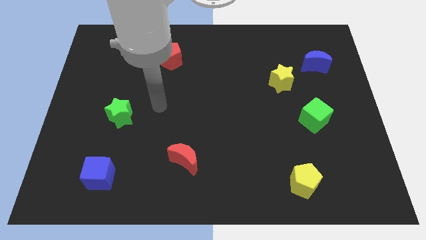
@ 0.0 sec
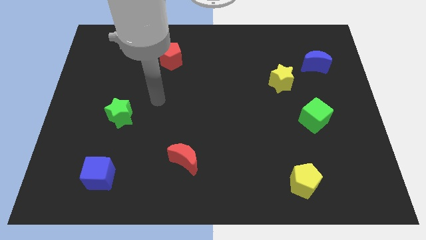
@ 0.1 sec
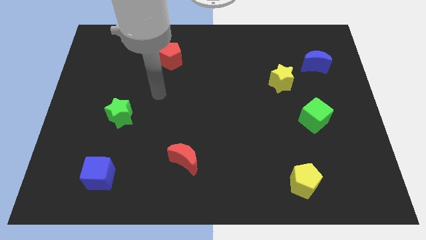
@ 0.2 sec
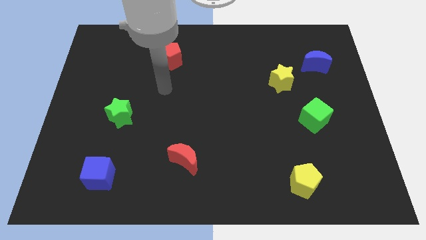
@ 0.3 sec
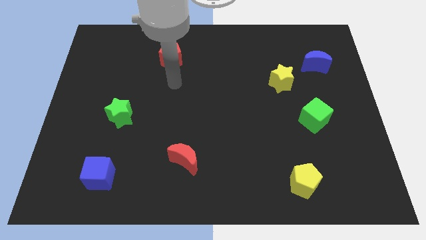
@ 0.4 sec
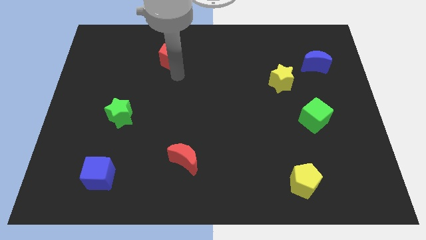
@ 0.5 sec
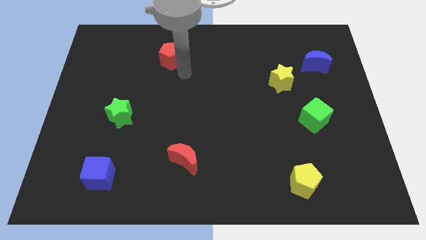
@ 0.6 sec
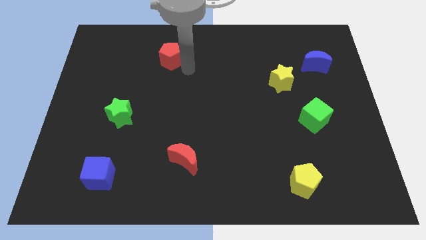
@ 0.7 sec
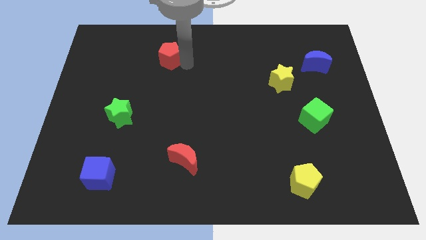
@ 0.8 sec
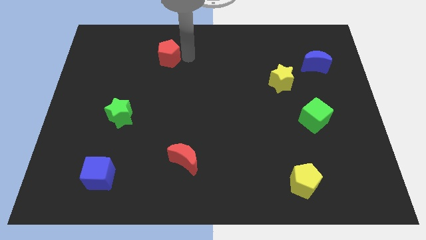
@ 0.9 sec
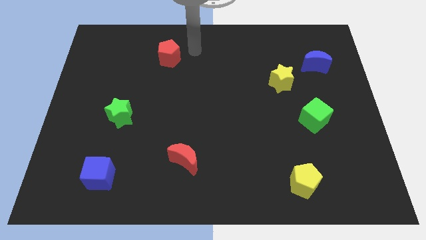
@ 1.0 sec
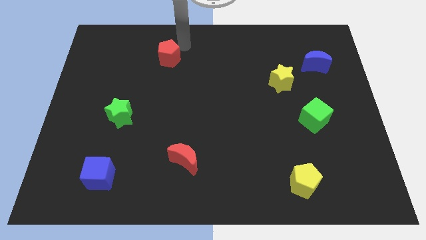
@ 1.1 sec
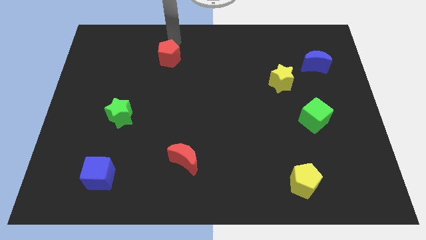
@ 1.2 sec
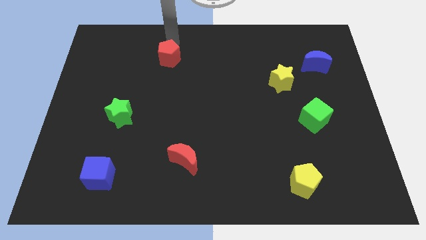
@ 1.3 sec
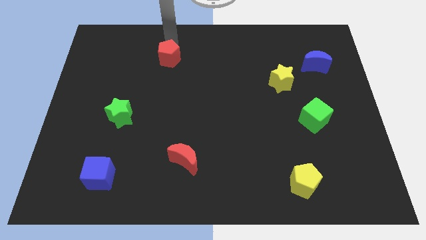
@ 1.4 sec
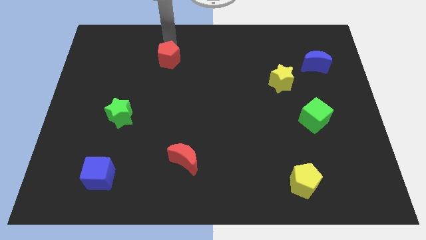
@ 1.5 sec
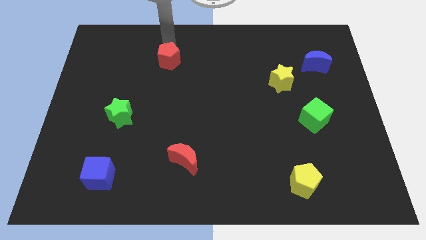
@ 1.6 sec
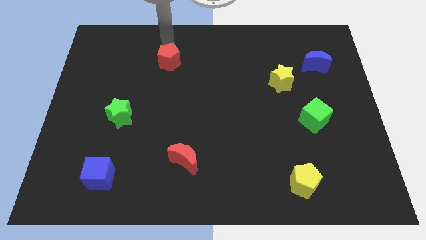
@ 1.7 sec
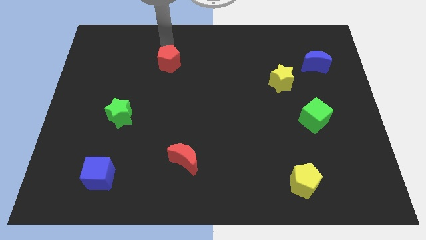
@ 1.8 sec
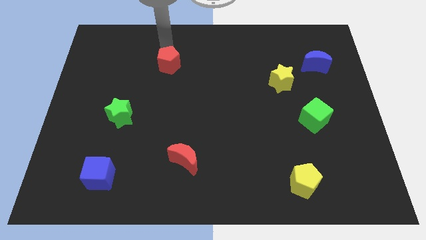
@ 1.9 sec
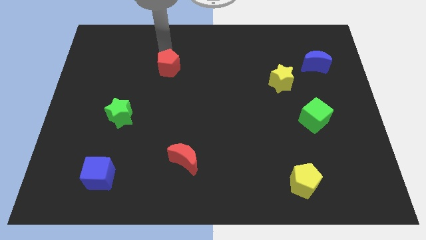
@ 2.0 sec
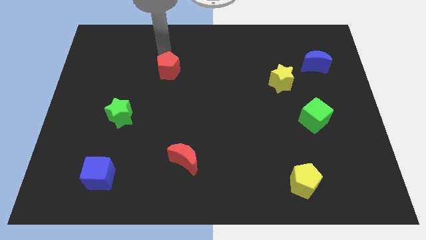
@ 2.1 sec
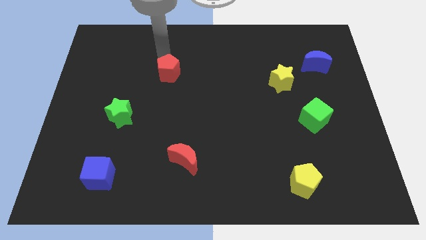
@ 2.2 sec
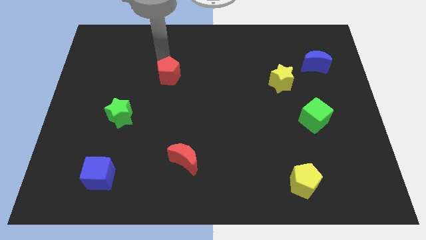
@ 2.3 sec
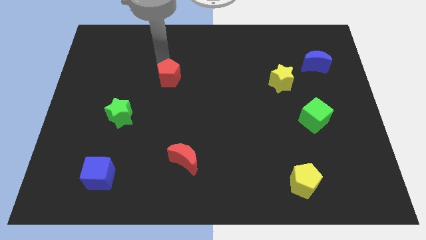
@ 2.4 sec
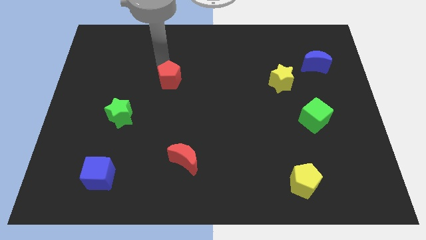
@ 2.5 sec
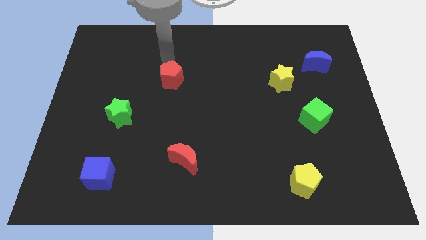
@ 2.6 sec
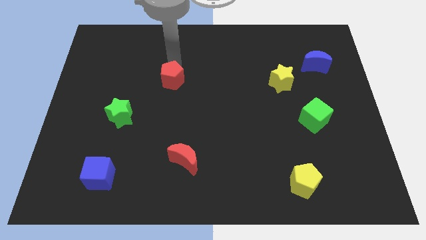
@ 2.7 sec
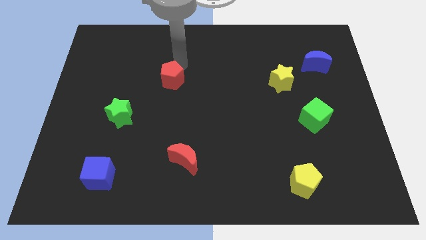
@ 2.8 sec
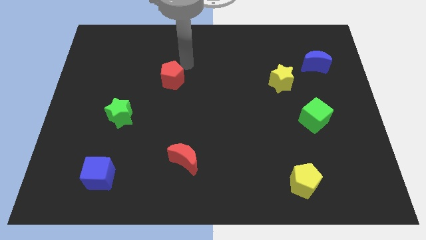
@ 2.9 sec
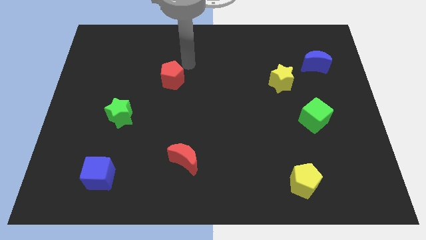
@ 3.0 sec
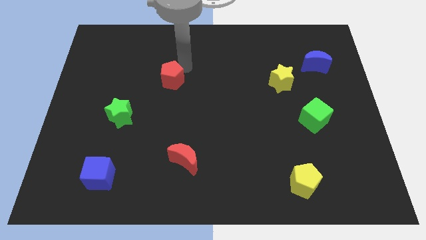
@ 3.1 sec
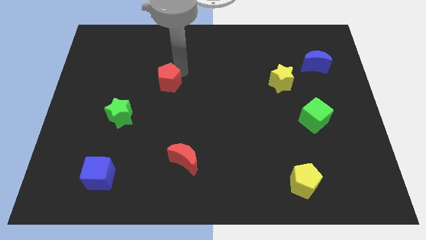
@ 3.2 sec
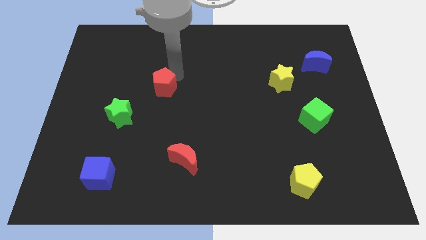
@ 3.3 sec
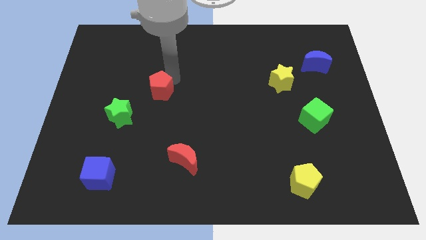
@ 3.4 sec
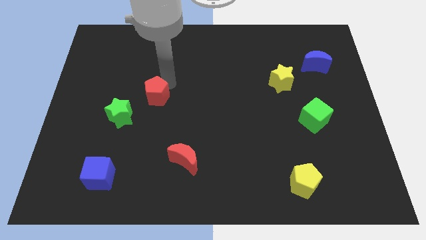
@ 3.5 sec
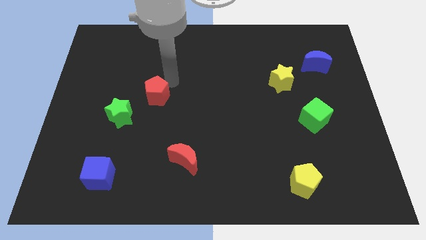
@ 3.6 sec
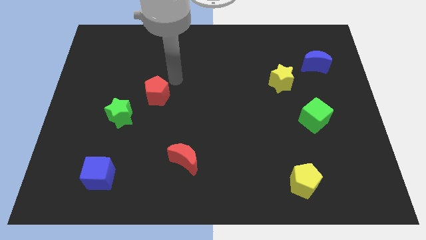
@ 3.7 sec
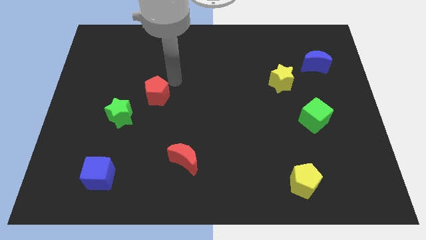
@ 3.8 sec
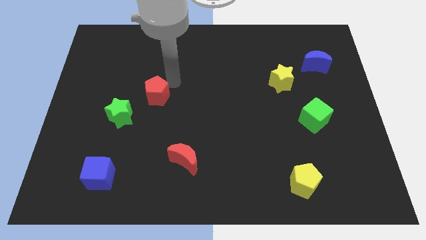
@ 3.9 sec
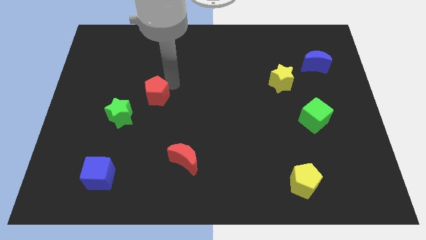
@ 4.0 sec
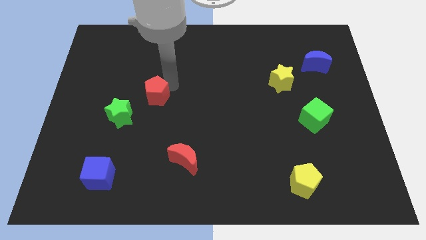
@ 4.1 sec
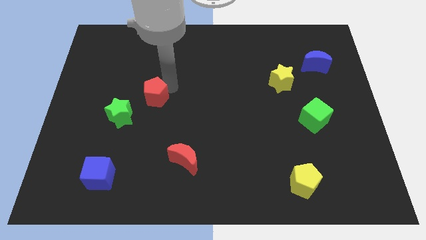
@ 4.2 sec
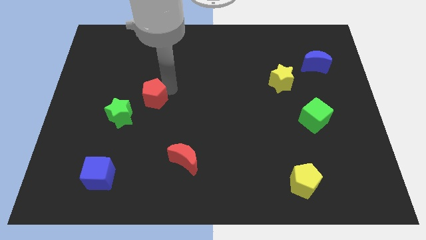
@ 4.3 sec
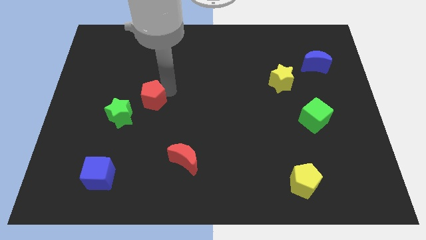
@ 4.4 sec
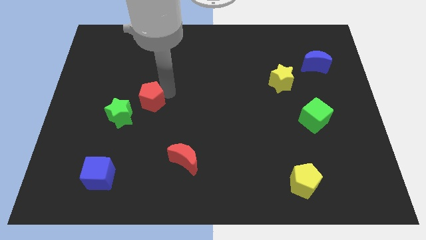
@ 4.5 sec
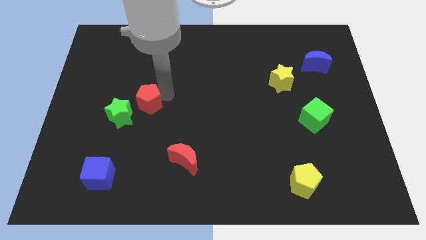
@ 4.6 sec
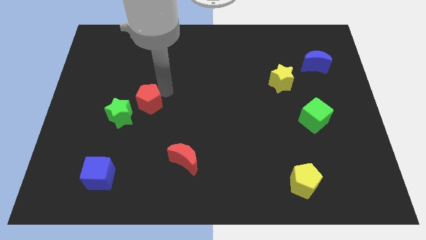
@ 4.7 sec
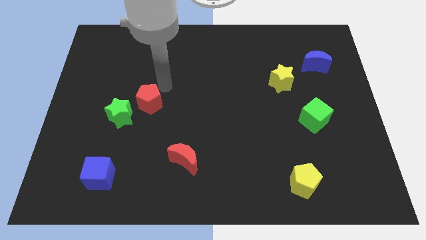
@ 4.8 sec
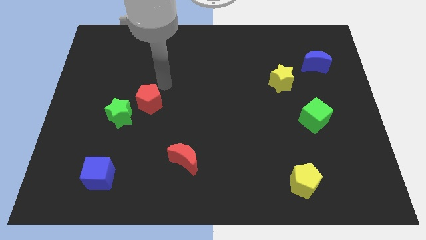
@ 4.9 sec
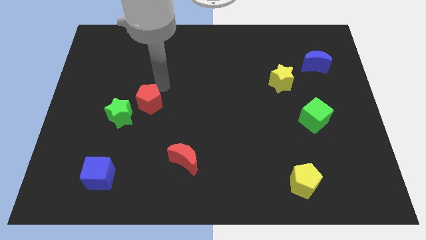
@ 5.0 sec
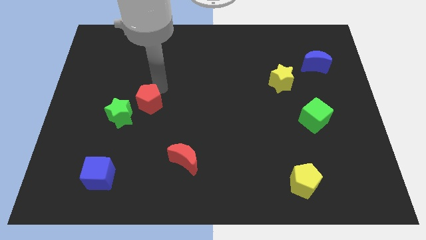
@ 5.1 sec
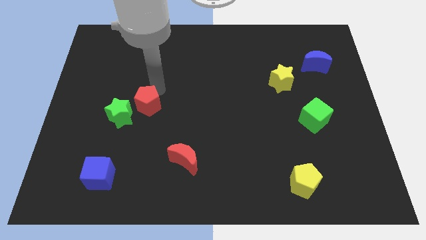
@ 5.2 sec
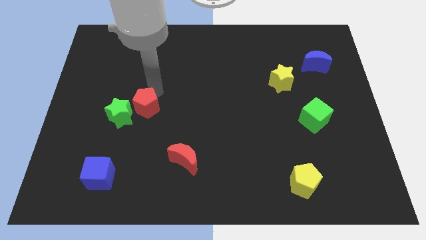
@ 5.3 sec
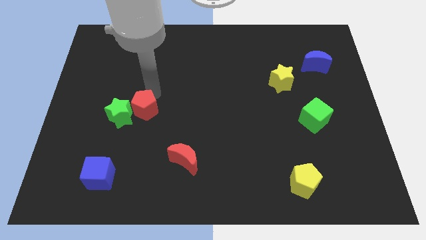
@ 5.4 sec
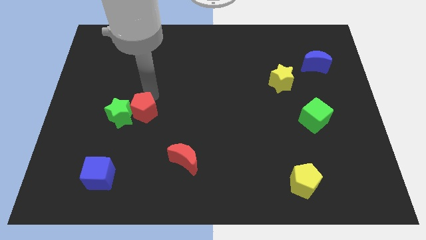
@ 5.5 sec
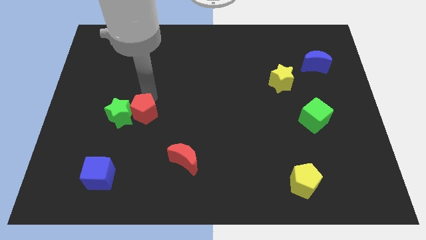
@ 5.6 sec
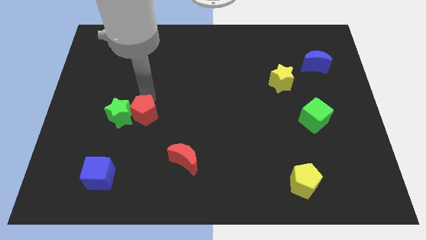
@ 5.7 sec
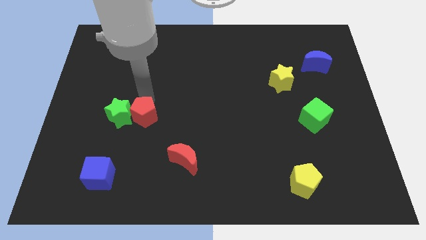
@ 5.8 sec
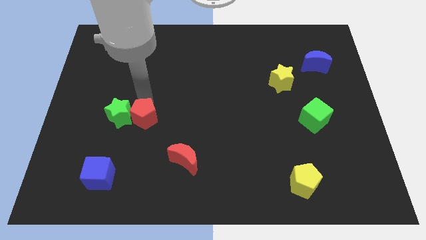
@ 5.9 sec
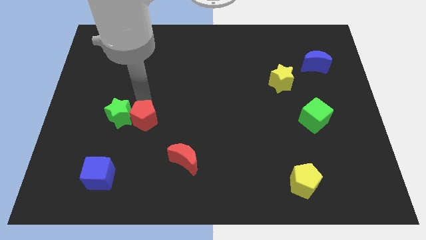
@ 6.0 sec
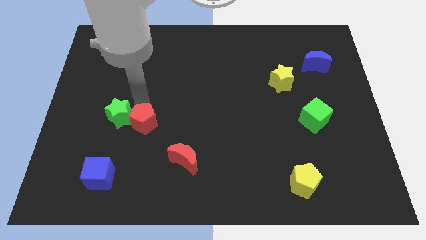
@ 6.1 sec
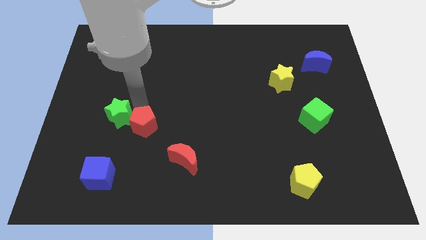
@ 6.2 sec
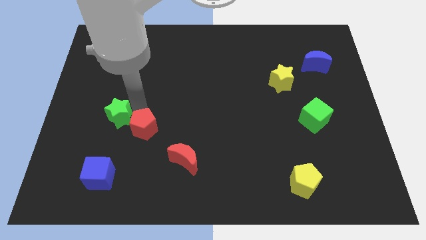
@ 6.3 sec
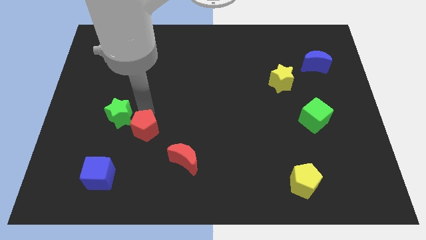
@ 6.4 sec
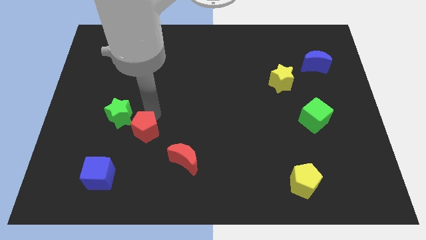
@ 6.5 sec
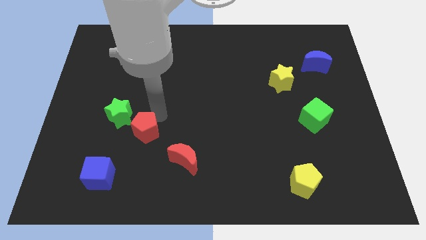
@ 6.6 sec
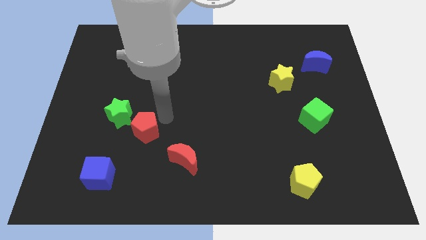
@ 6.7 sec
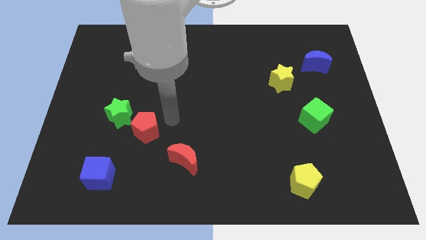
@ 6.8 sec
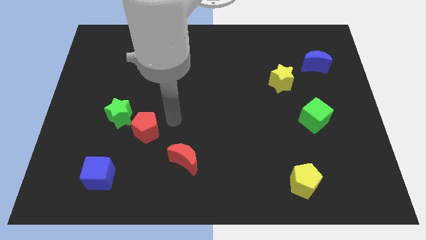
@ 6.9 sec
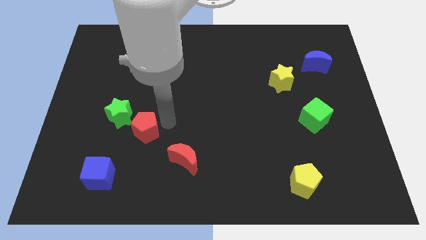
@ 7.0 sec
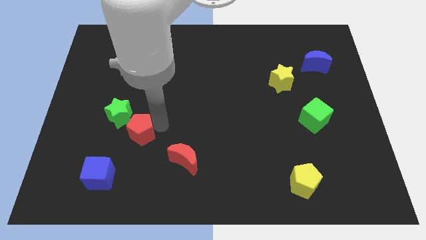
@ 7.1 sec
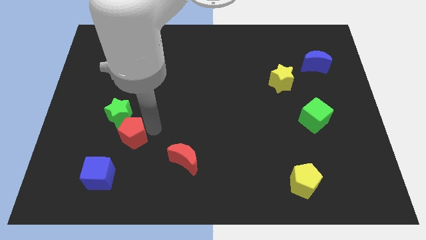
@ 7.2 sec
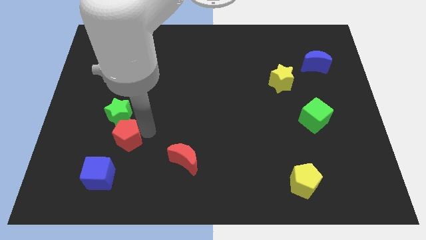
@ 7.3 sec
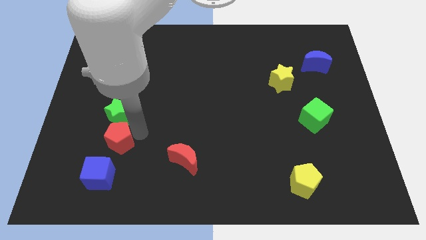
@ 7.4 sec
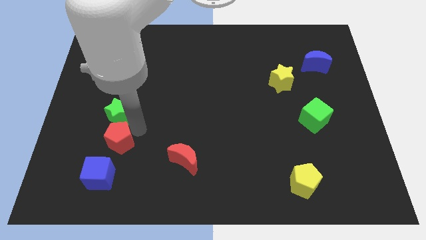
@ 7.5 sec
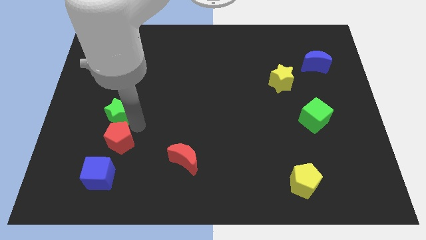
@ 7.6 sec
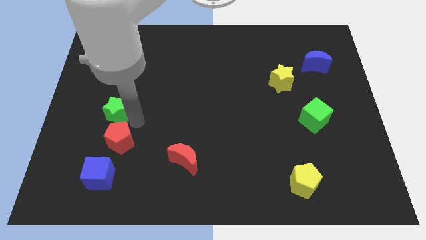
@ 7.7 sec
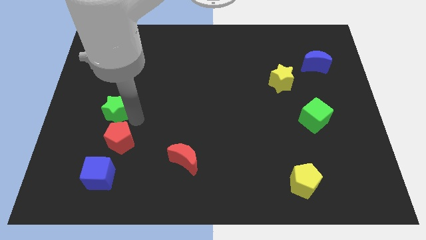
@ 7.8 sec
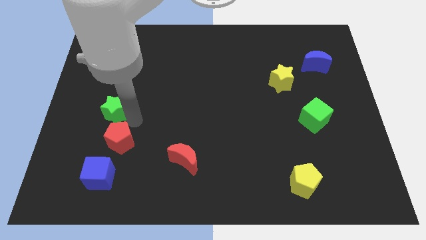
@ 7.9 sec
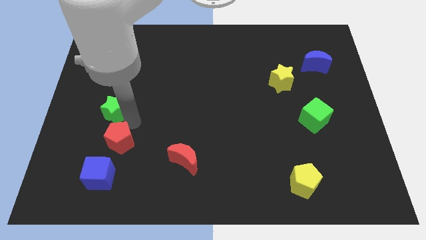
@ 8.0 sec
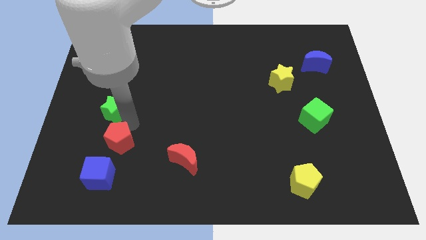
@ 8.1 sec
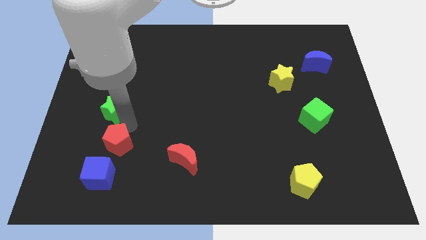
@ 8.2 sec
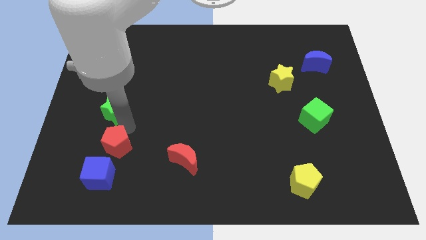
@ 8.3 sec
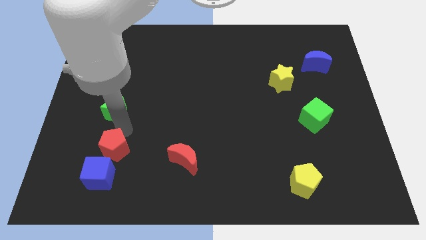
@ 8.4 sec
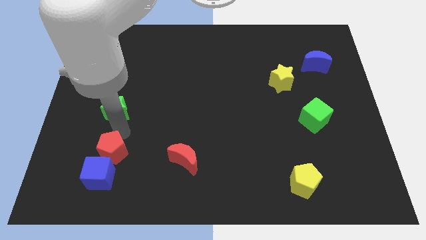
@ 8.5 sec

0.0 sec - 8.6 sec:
slide the red pentagon next to the blue cube
